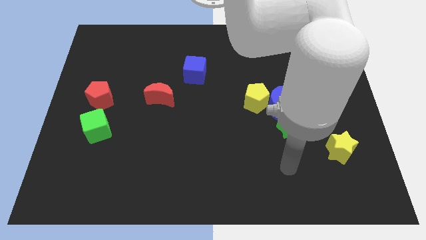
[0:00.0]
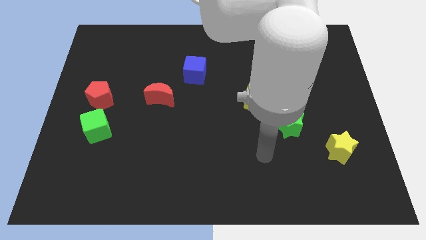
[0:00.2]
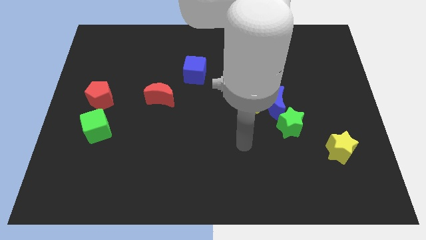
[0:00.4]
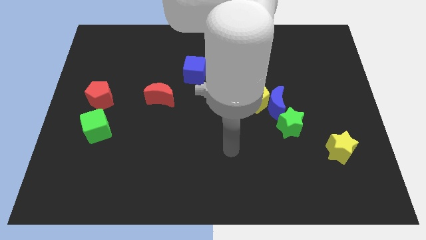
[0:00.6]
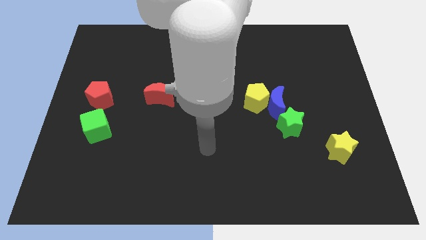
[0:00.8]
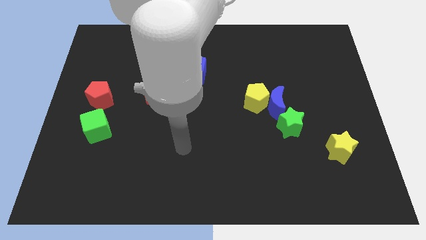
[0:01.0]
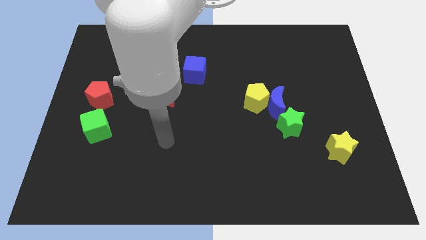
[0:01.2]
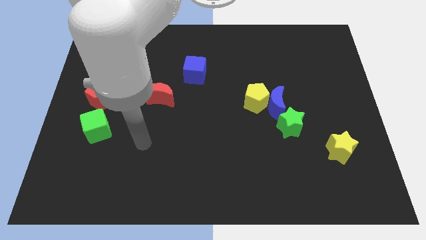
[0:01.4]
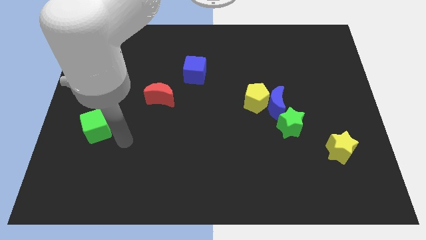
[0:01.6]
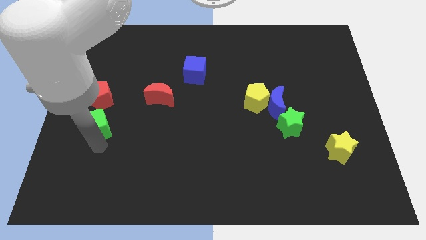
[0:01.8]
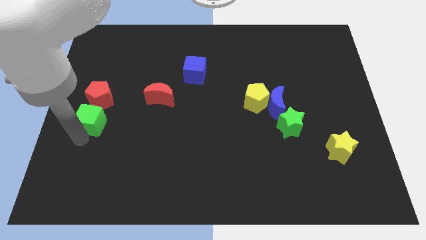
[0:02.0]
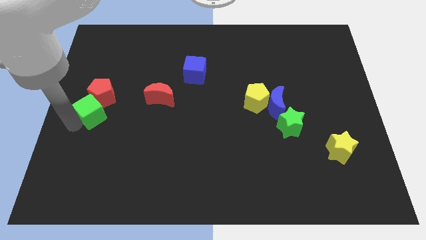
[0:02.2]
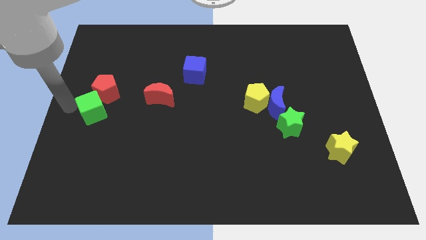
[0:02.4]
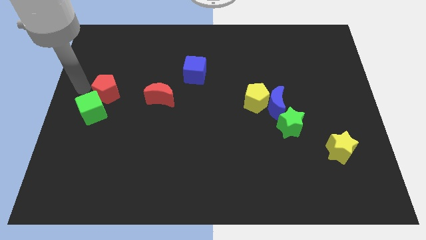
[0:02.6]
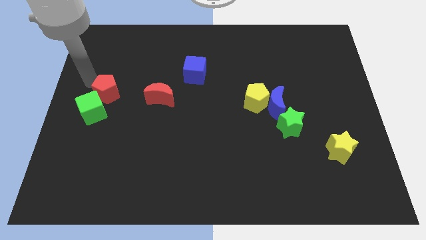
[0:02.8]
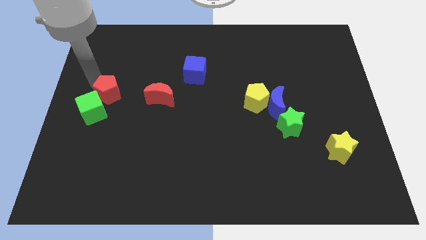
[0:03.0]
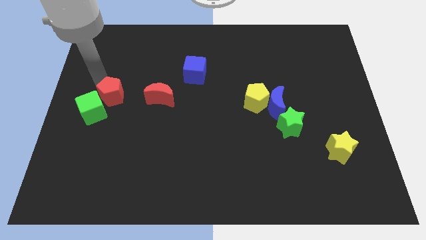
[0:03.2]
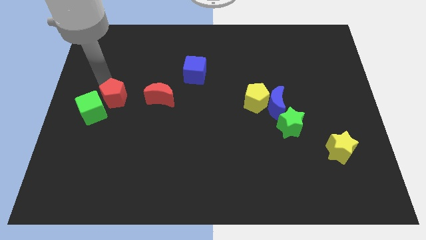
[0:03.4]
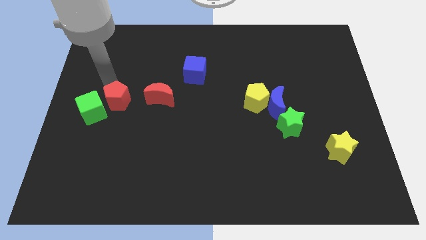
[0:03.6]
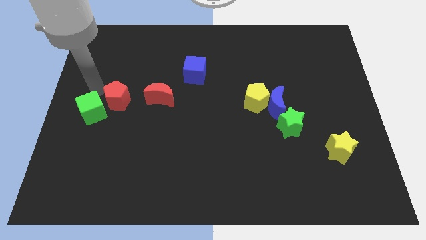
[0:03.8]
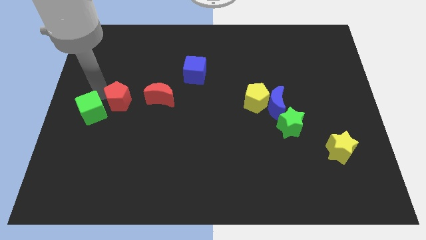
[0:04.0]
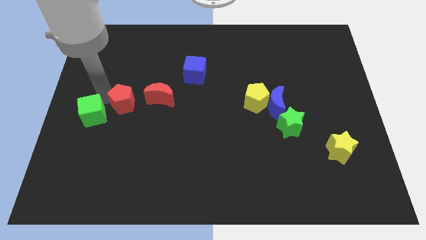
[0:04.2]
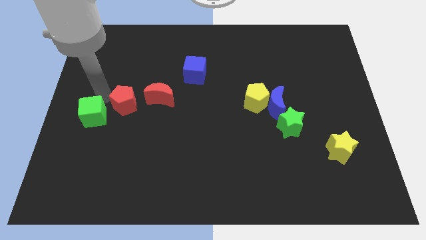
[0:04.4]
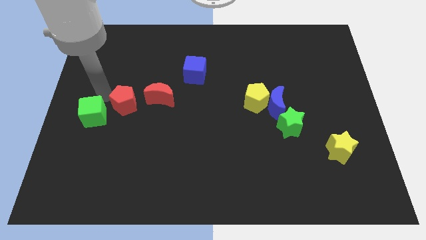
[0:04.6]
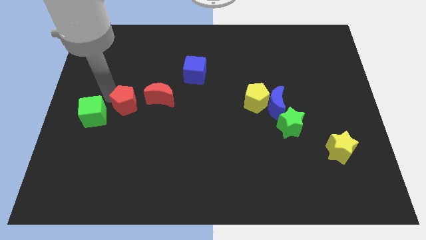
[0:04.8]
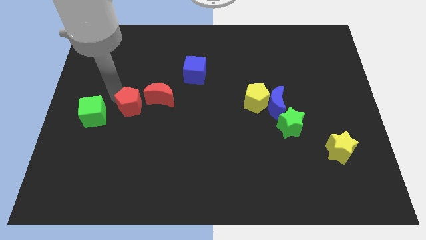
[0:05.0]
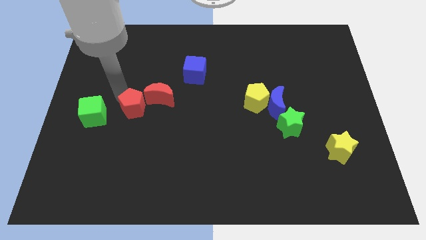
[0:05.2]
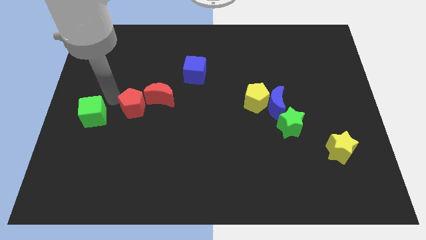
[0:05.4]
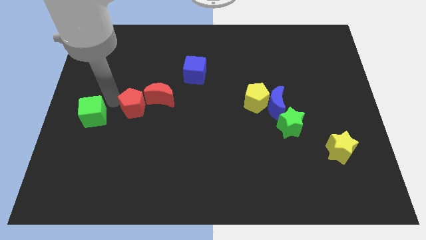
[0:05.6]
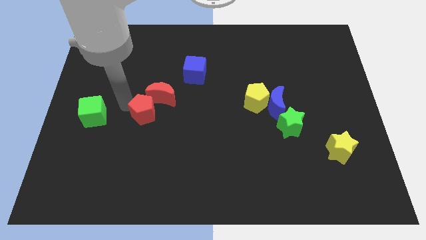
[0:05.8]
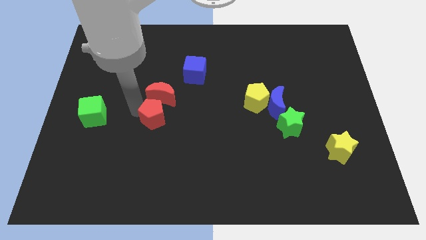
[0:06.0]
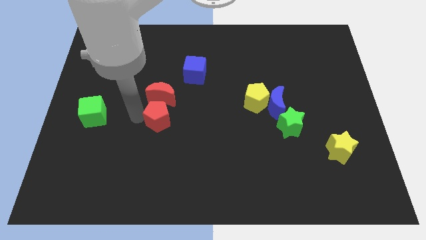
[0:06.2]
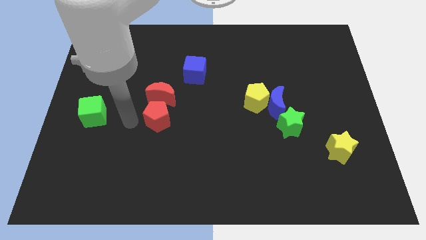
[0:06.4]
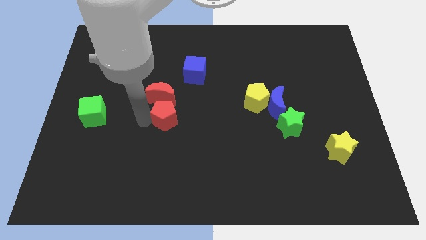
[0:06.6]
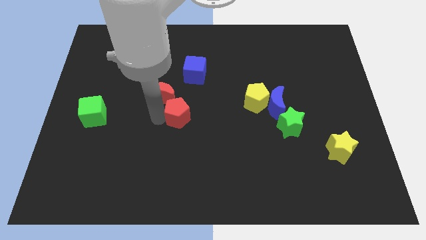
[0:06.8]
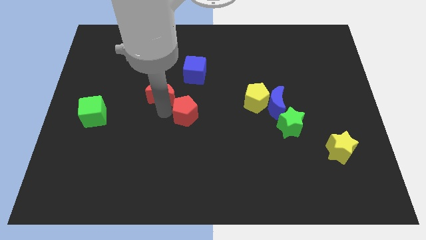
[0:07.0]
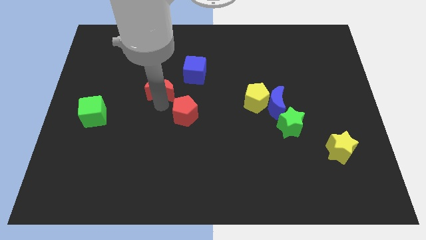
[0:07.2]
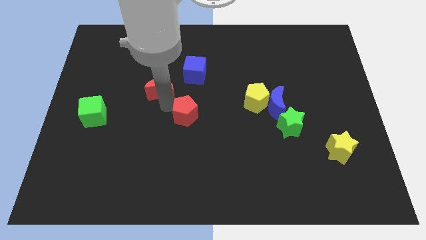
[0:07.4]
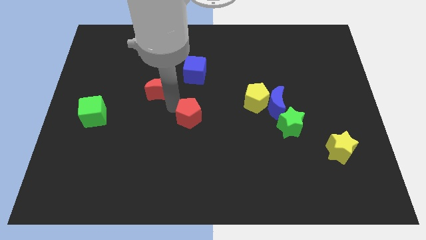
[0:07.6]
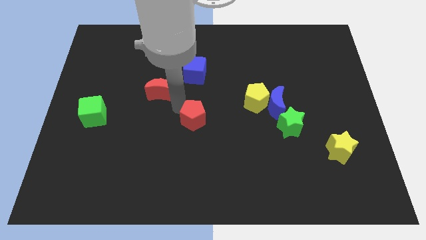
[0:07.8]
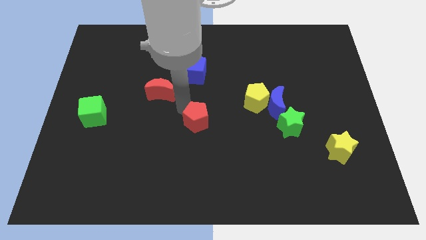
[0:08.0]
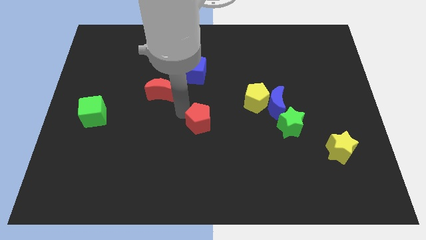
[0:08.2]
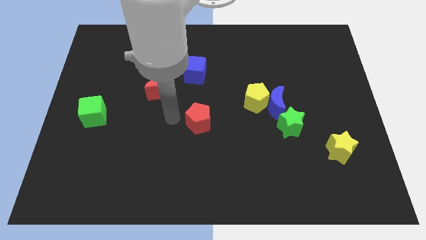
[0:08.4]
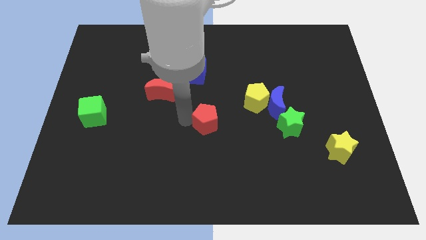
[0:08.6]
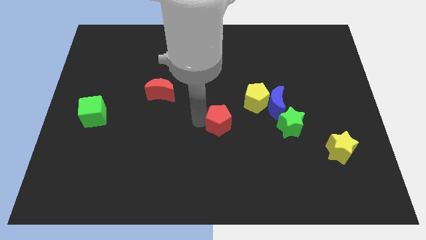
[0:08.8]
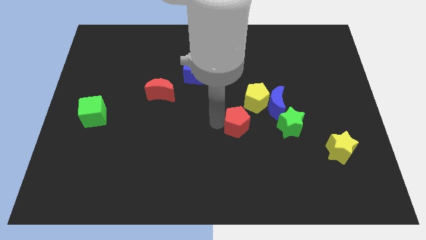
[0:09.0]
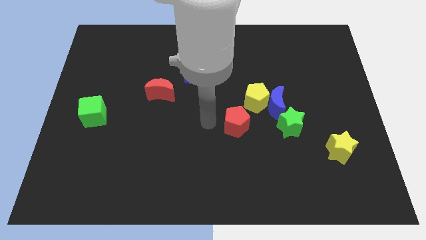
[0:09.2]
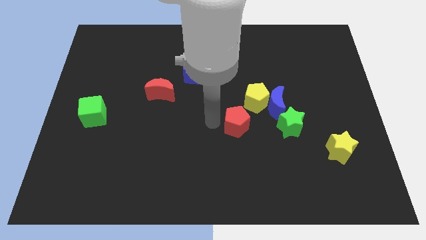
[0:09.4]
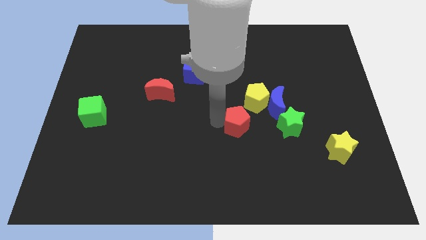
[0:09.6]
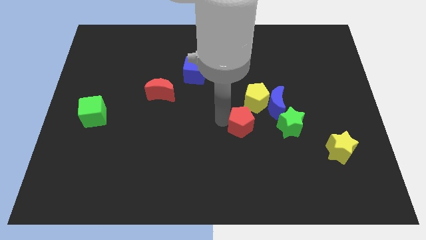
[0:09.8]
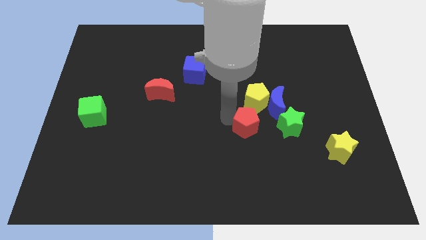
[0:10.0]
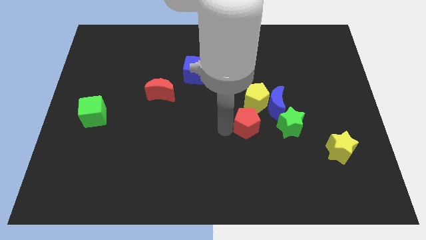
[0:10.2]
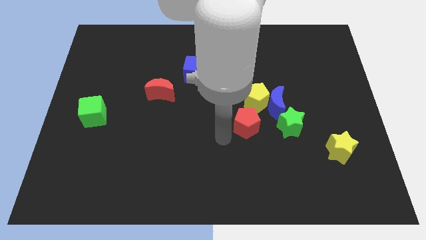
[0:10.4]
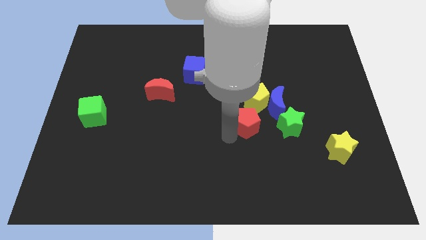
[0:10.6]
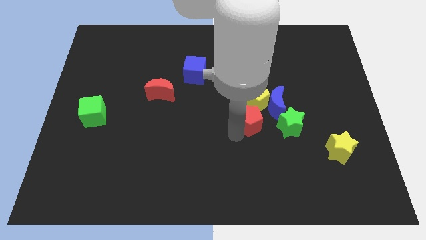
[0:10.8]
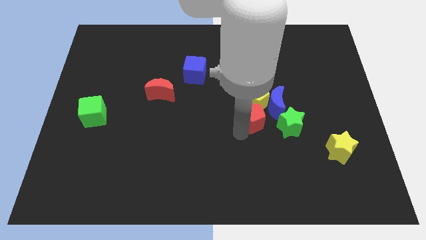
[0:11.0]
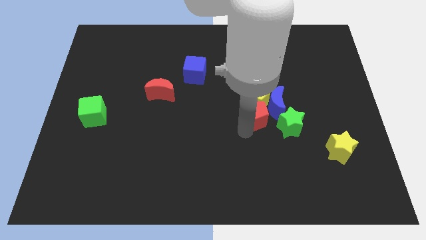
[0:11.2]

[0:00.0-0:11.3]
slide the red pentagon to the blue moon

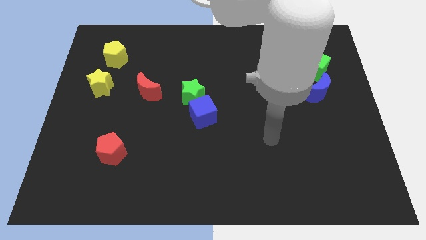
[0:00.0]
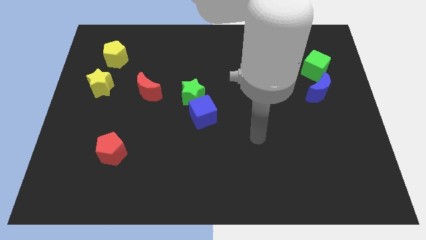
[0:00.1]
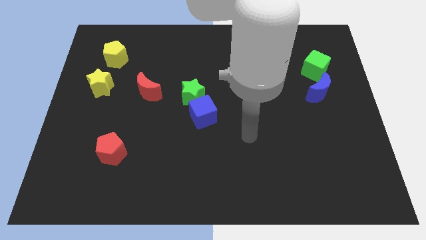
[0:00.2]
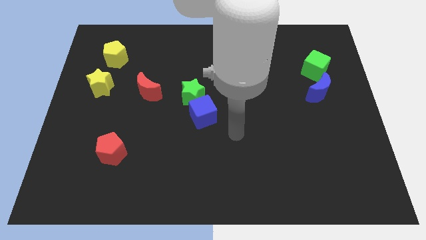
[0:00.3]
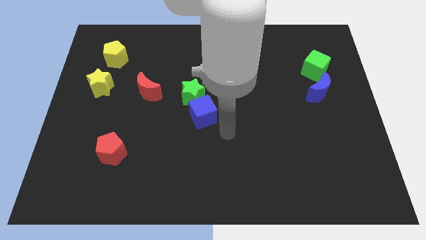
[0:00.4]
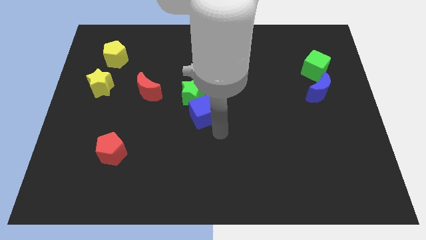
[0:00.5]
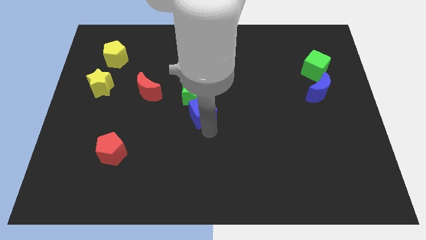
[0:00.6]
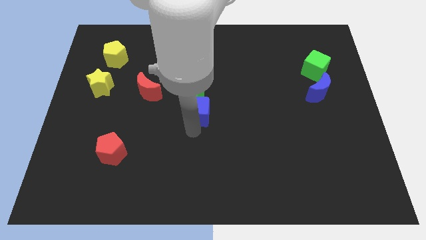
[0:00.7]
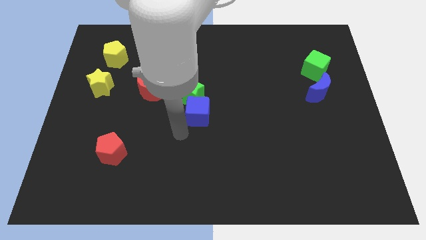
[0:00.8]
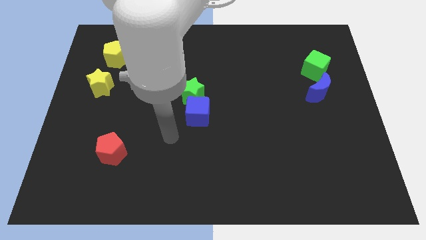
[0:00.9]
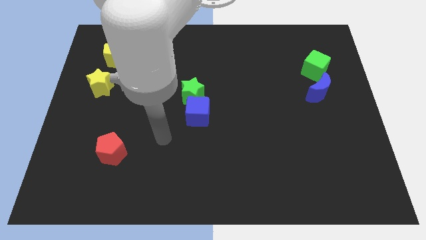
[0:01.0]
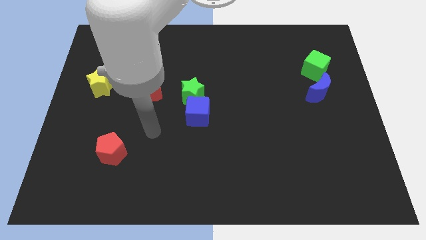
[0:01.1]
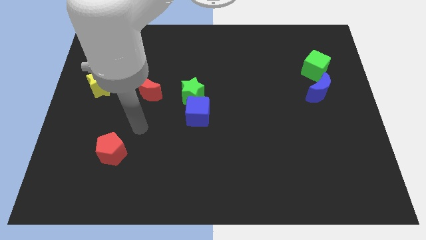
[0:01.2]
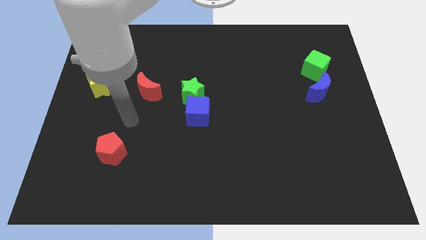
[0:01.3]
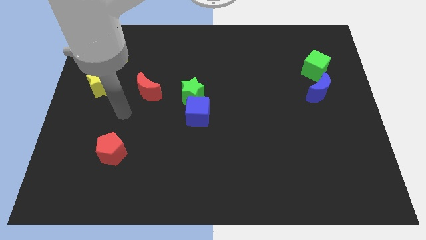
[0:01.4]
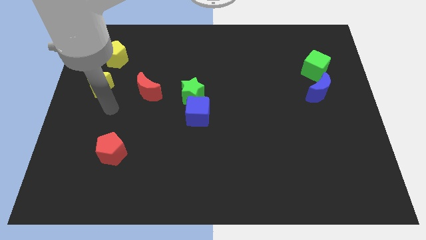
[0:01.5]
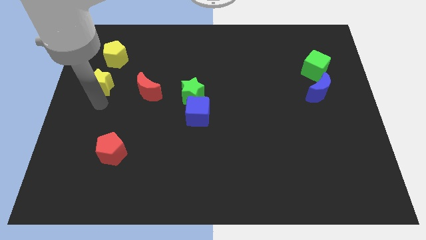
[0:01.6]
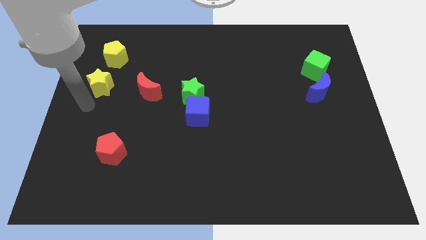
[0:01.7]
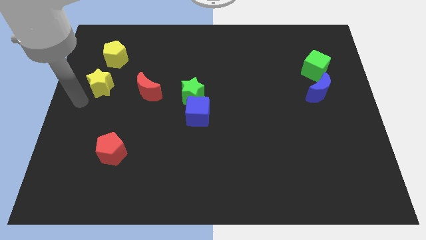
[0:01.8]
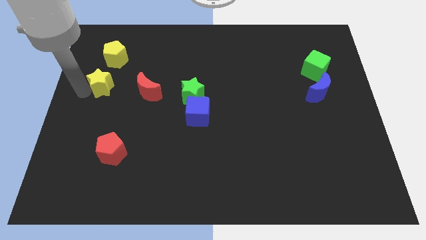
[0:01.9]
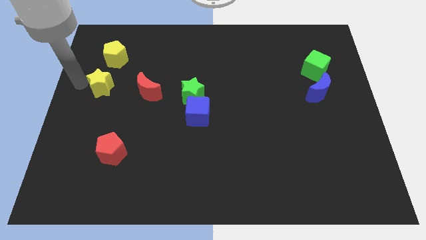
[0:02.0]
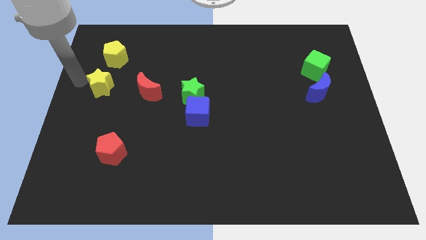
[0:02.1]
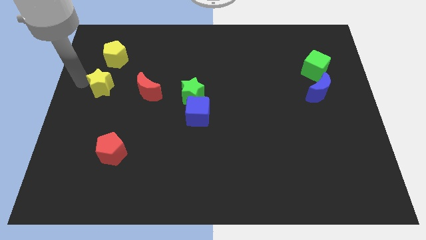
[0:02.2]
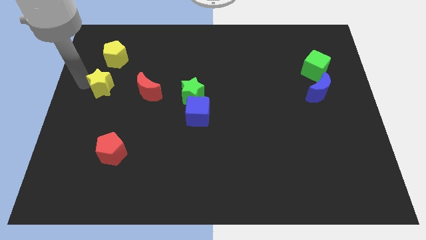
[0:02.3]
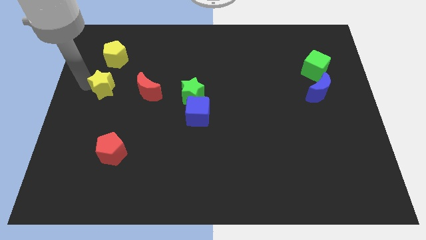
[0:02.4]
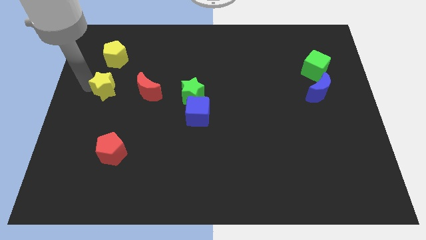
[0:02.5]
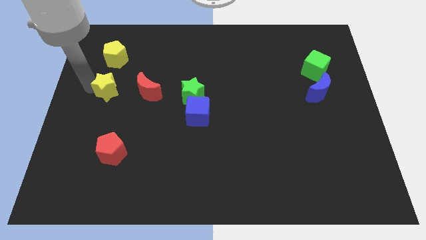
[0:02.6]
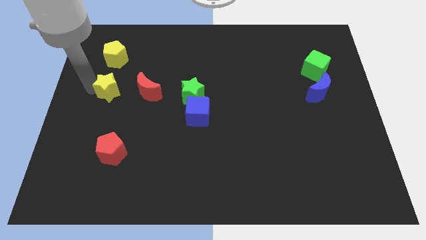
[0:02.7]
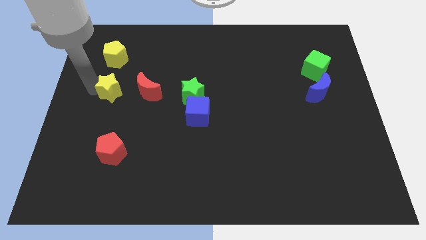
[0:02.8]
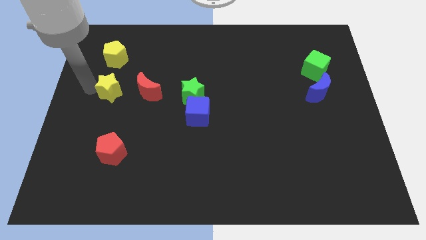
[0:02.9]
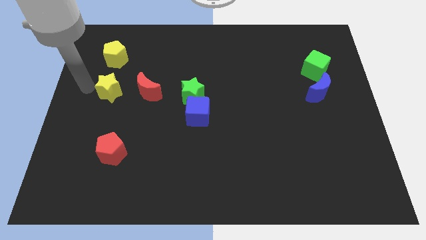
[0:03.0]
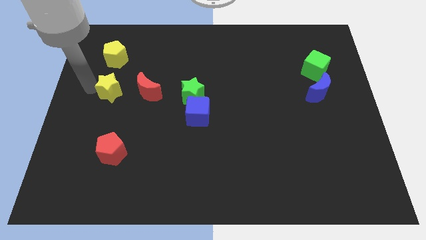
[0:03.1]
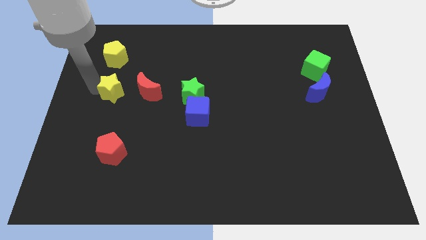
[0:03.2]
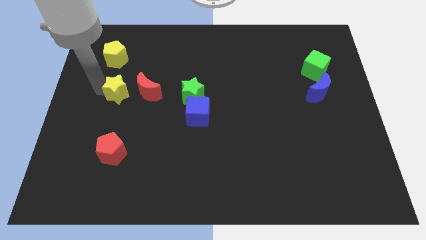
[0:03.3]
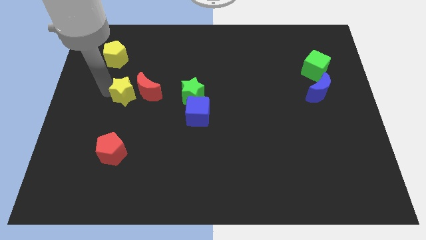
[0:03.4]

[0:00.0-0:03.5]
push the yellow star close to the red moon
